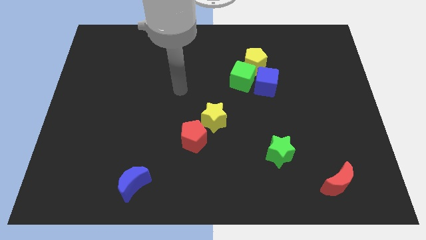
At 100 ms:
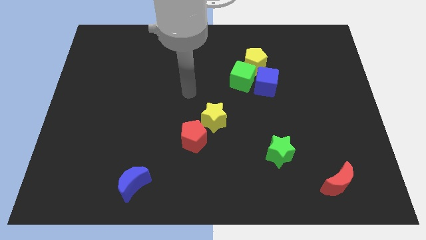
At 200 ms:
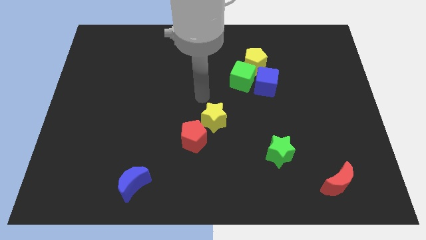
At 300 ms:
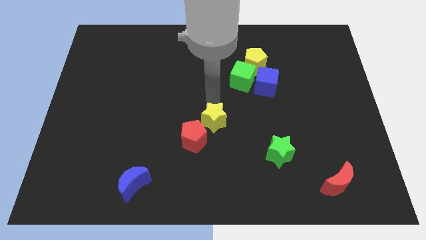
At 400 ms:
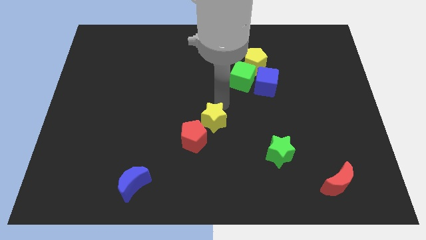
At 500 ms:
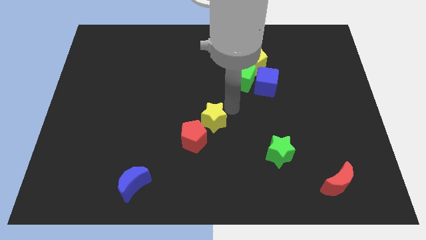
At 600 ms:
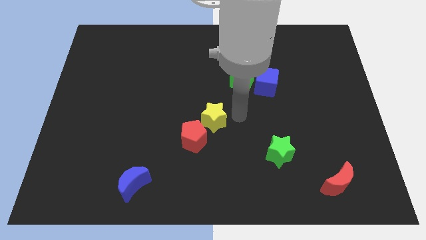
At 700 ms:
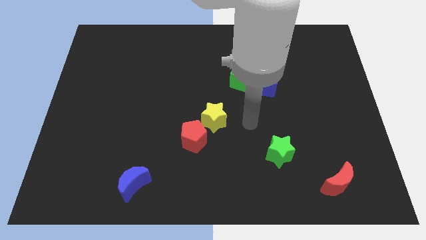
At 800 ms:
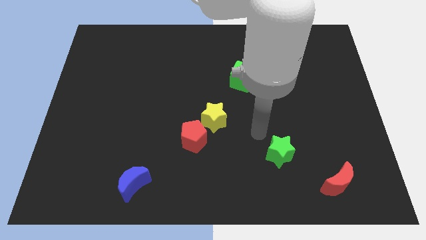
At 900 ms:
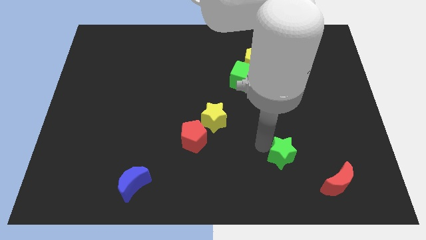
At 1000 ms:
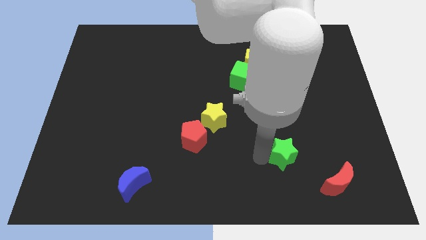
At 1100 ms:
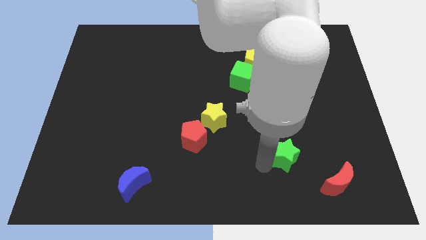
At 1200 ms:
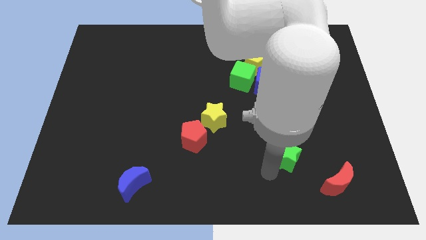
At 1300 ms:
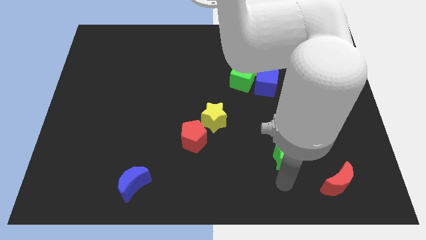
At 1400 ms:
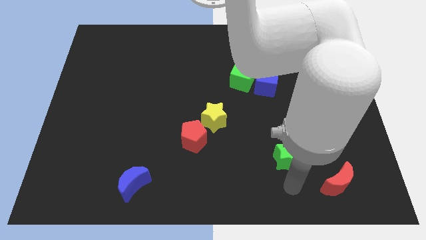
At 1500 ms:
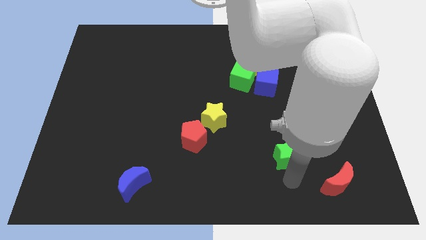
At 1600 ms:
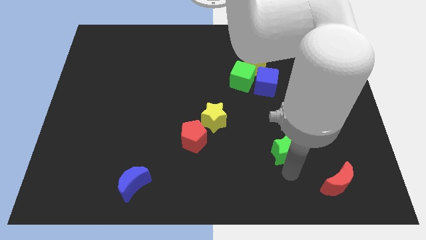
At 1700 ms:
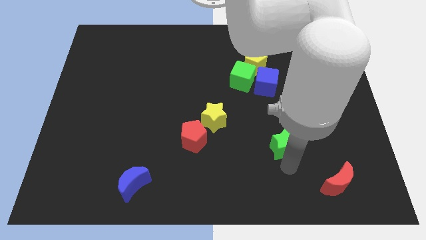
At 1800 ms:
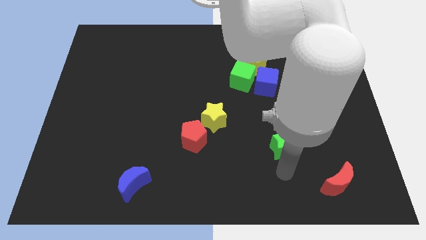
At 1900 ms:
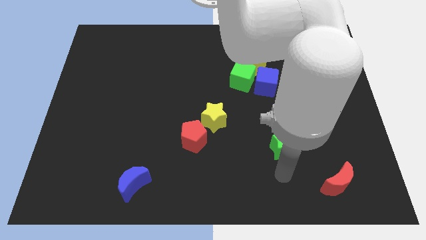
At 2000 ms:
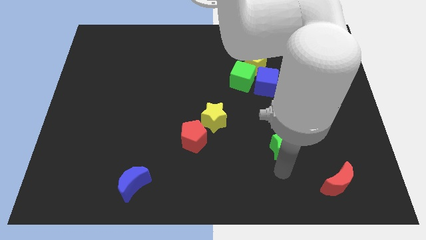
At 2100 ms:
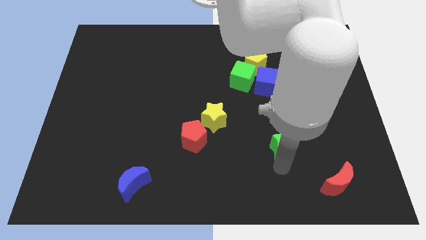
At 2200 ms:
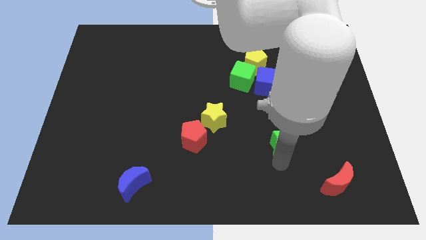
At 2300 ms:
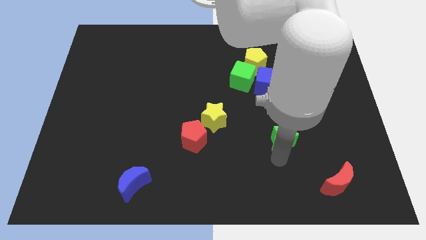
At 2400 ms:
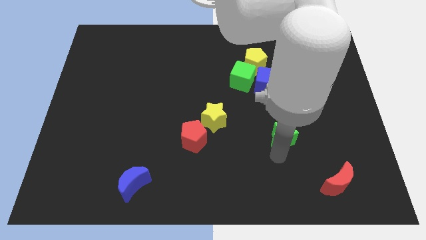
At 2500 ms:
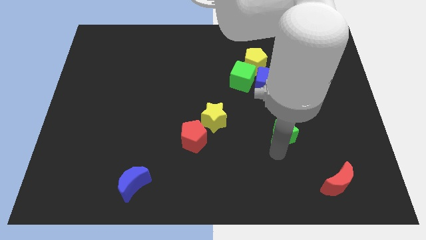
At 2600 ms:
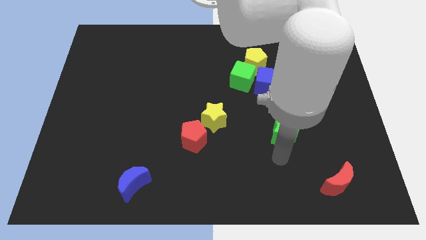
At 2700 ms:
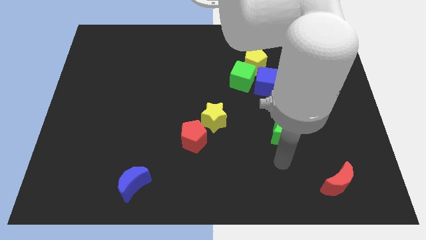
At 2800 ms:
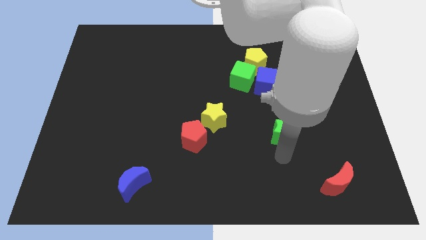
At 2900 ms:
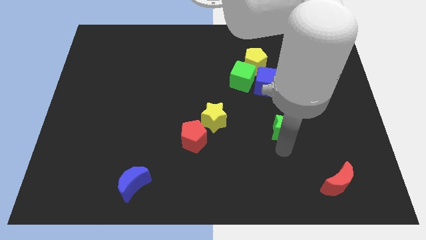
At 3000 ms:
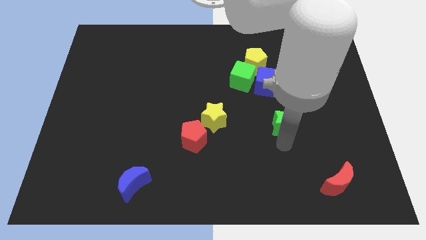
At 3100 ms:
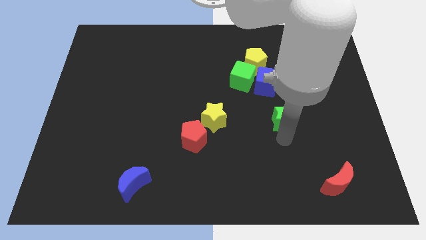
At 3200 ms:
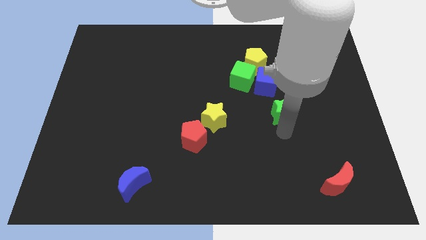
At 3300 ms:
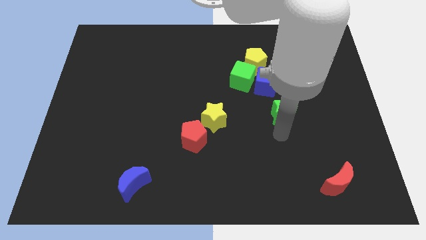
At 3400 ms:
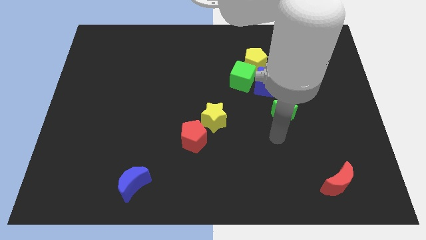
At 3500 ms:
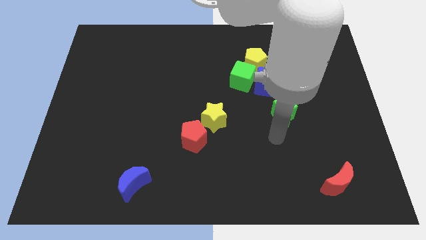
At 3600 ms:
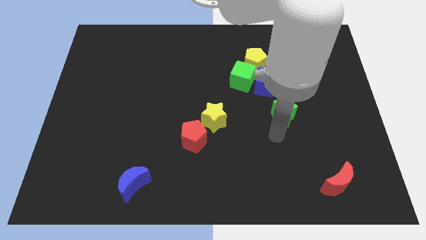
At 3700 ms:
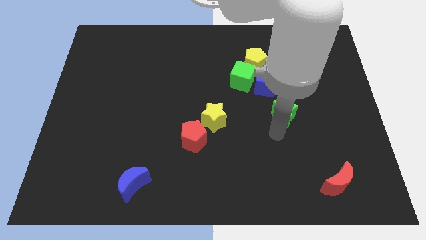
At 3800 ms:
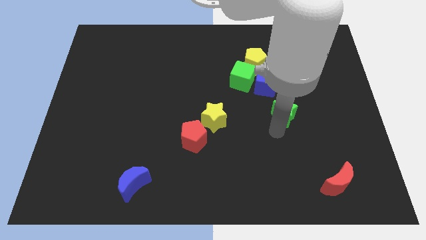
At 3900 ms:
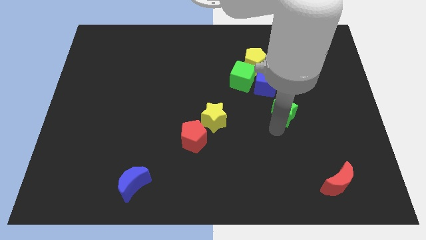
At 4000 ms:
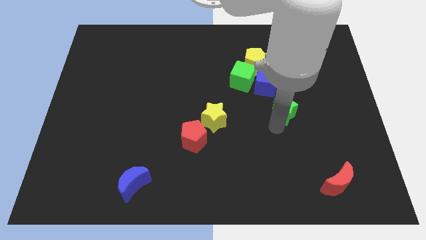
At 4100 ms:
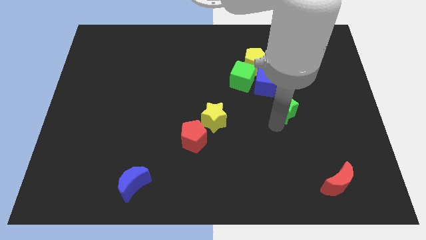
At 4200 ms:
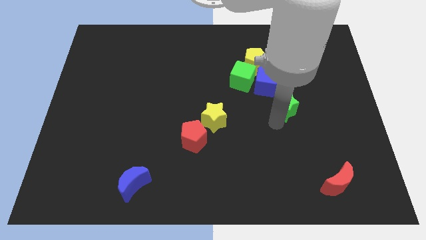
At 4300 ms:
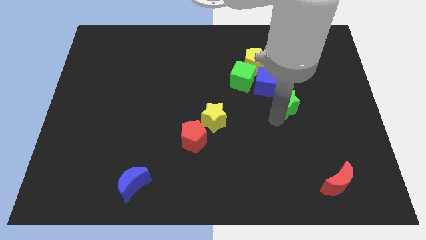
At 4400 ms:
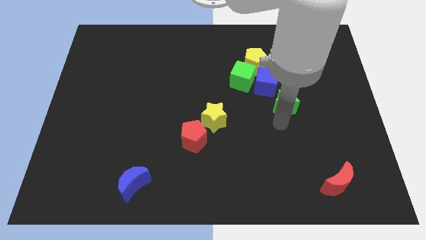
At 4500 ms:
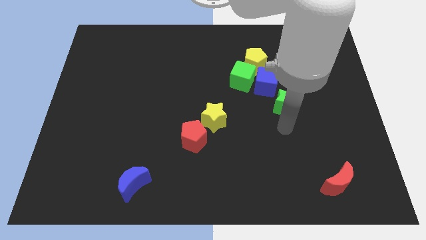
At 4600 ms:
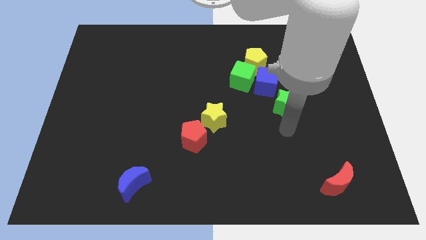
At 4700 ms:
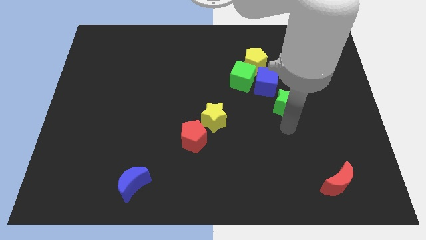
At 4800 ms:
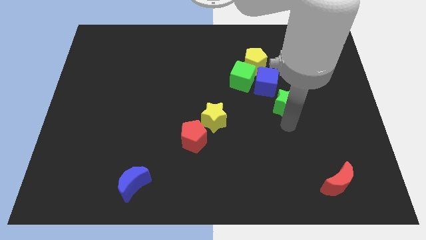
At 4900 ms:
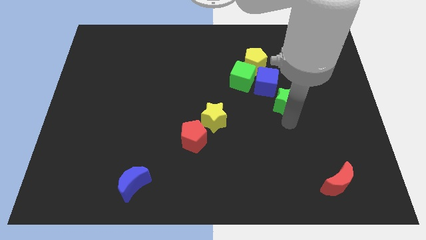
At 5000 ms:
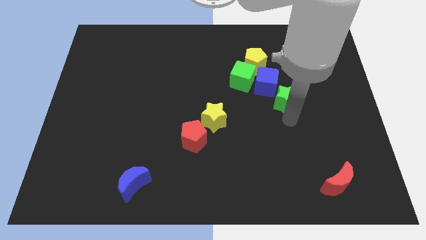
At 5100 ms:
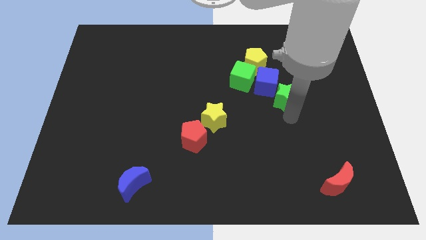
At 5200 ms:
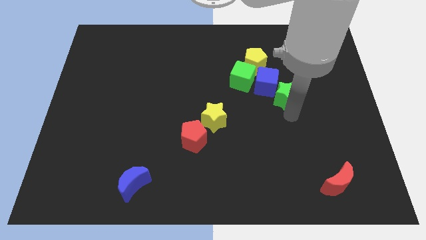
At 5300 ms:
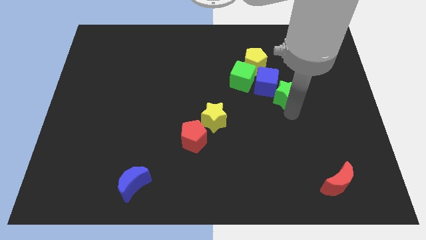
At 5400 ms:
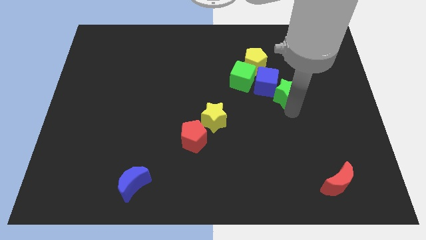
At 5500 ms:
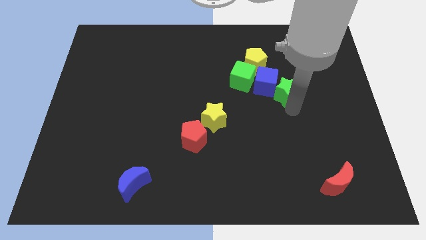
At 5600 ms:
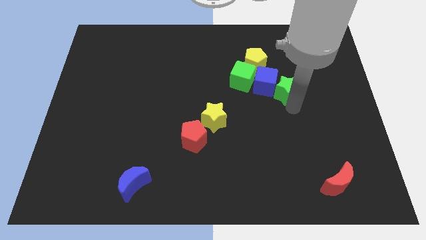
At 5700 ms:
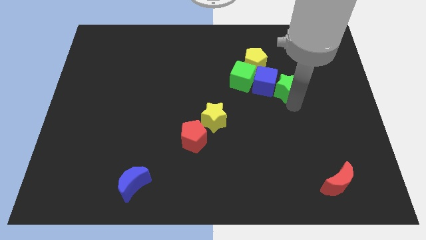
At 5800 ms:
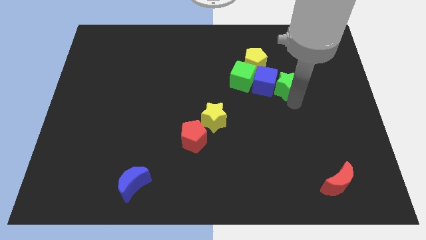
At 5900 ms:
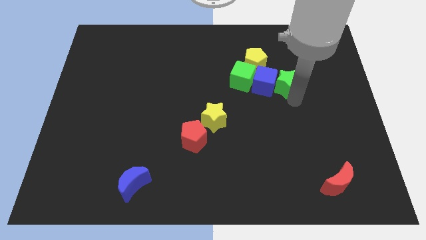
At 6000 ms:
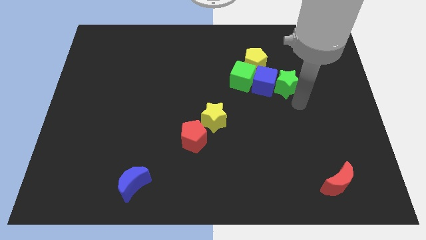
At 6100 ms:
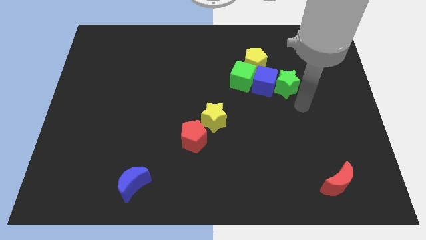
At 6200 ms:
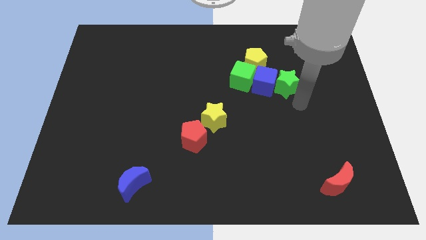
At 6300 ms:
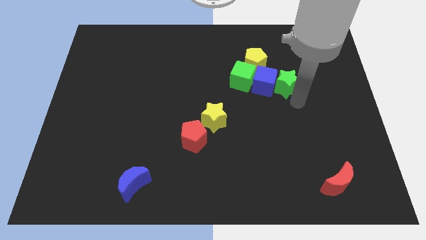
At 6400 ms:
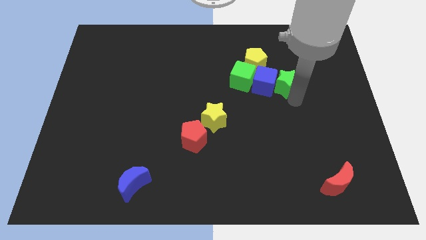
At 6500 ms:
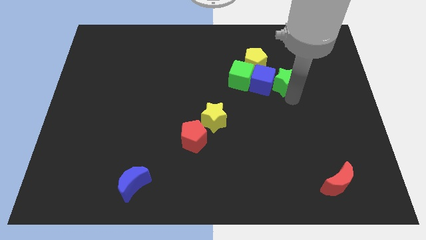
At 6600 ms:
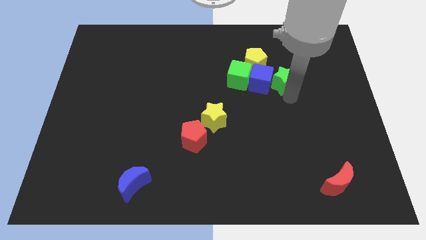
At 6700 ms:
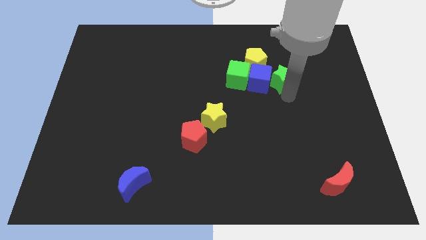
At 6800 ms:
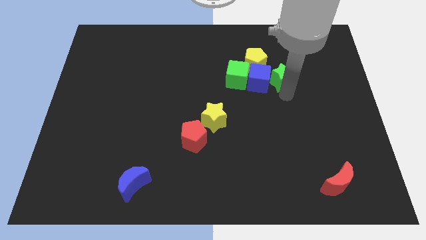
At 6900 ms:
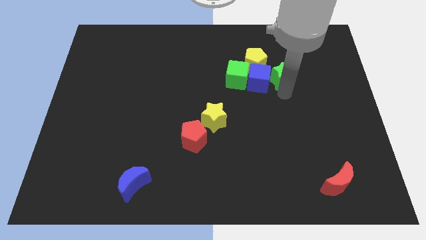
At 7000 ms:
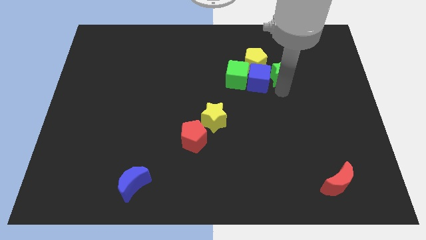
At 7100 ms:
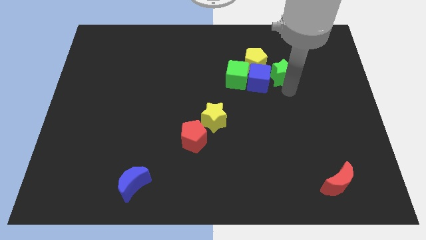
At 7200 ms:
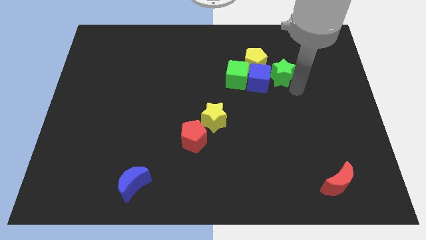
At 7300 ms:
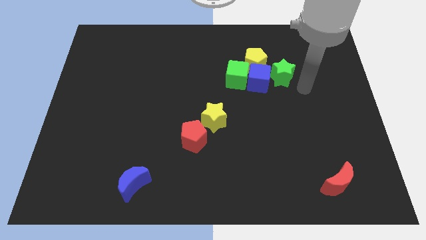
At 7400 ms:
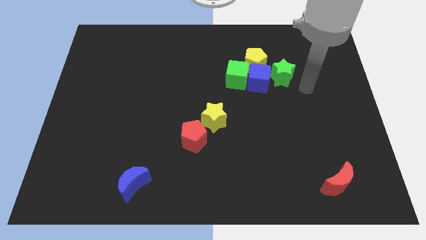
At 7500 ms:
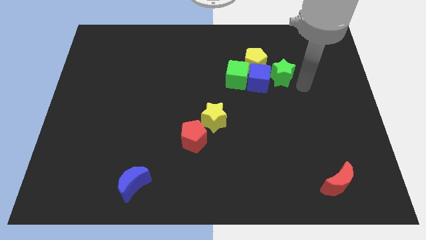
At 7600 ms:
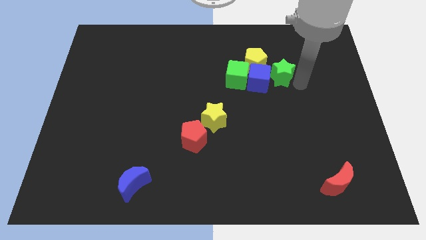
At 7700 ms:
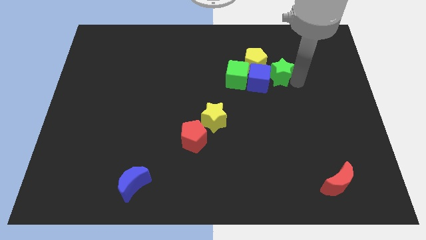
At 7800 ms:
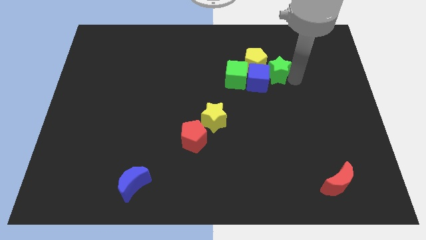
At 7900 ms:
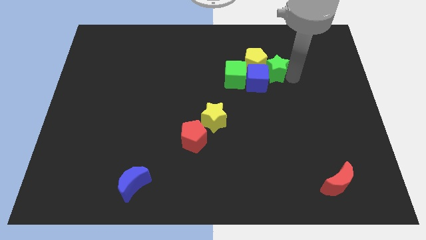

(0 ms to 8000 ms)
move the green star close to the yellow pentagon
